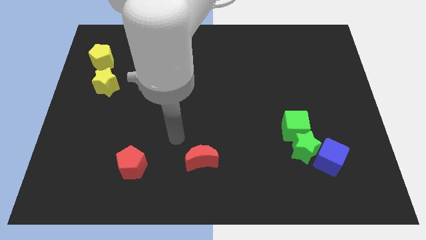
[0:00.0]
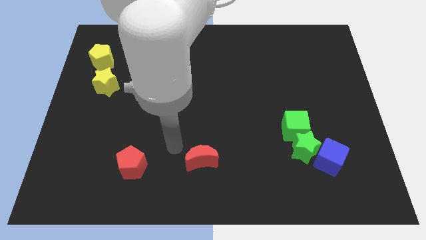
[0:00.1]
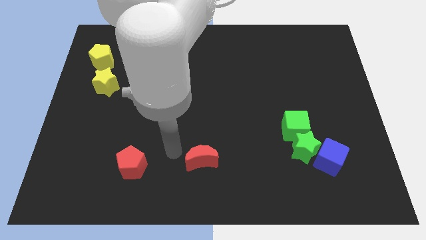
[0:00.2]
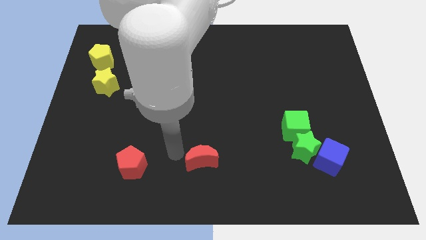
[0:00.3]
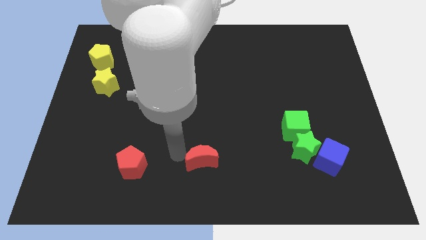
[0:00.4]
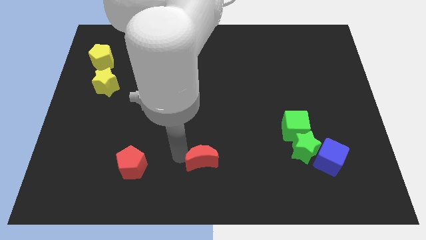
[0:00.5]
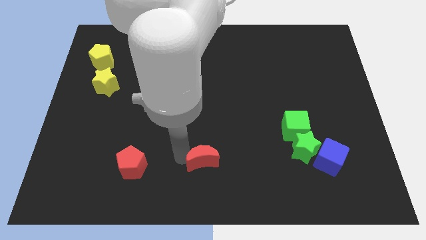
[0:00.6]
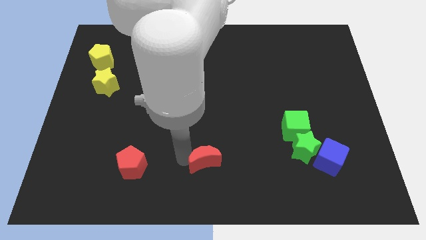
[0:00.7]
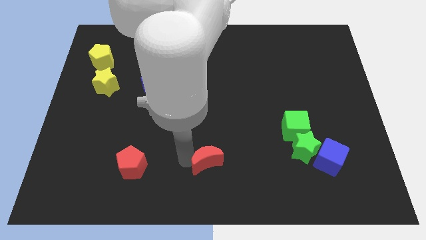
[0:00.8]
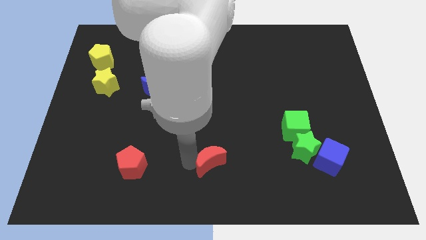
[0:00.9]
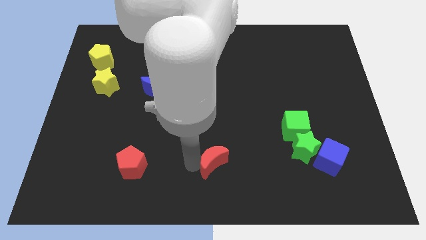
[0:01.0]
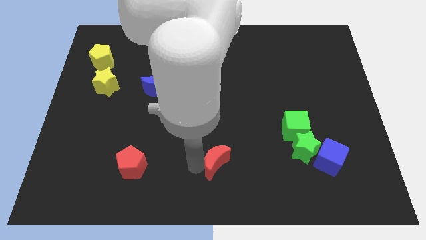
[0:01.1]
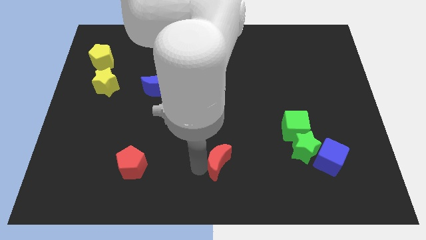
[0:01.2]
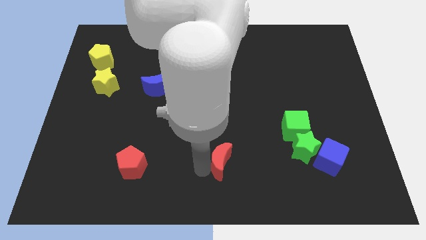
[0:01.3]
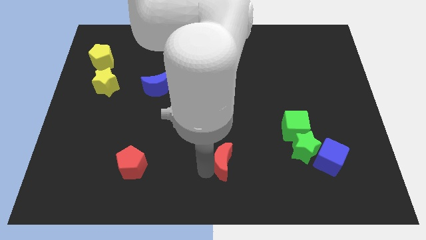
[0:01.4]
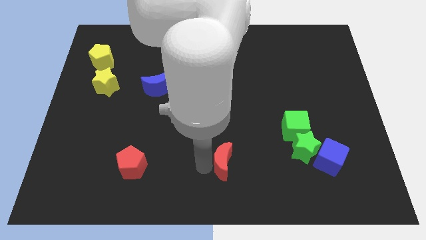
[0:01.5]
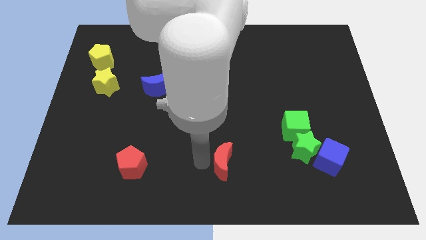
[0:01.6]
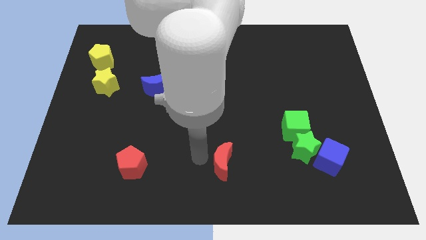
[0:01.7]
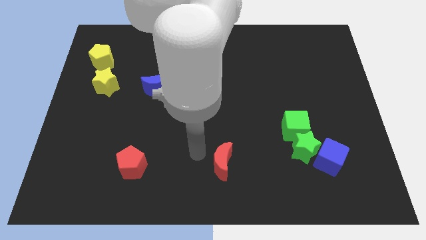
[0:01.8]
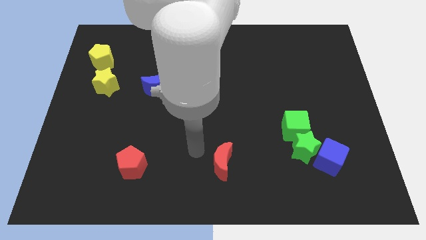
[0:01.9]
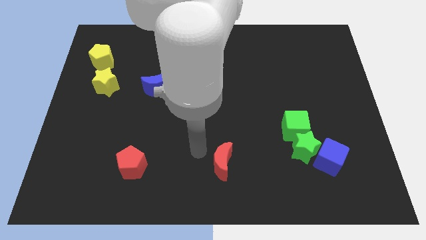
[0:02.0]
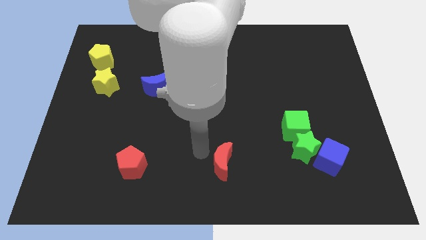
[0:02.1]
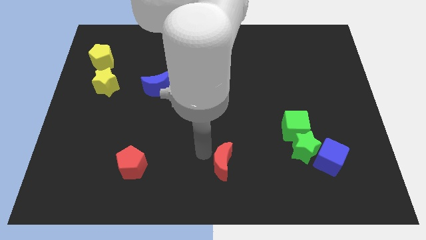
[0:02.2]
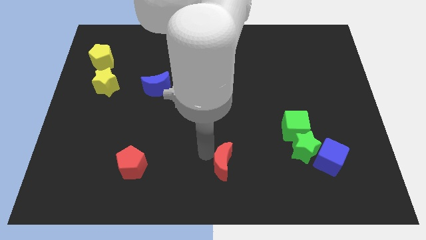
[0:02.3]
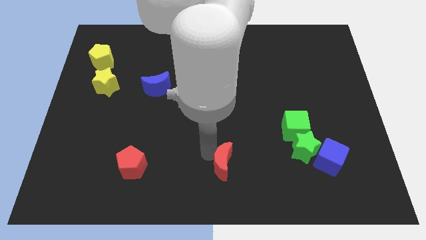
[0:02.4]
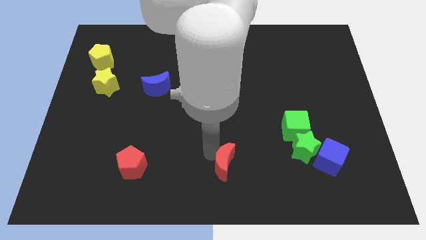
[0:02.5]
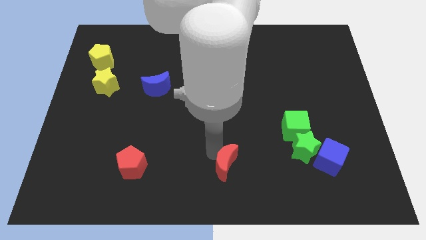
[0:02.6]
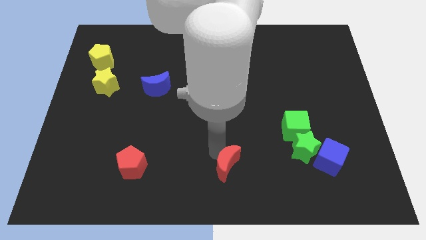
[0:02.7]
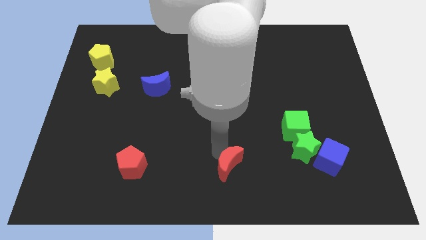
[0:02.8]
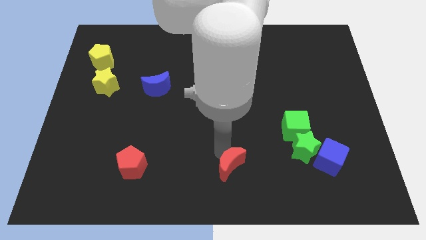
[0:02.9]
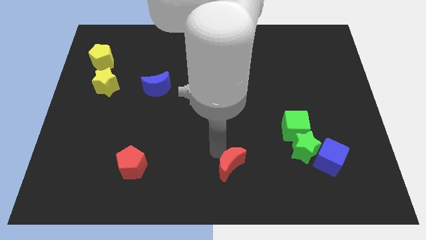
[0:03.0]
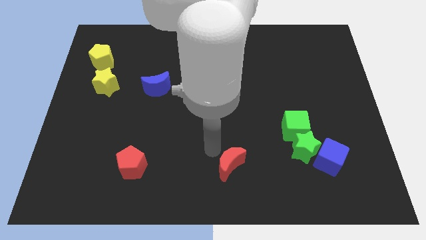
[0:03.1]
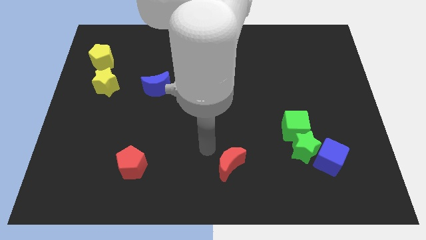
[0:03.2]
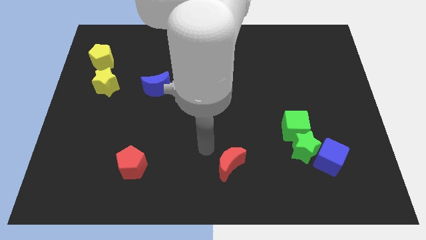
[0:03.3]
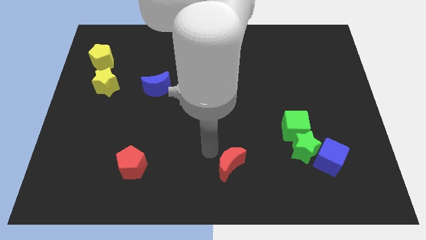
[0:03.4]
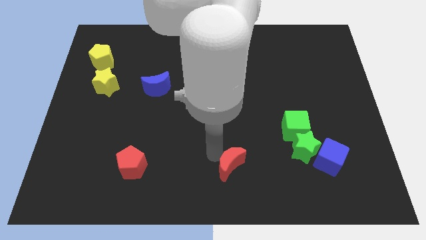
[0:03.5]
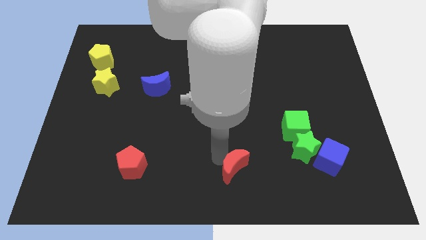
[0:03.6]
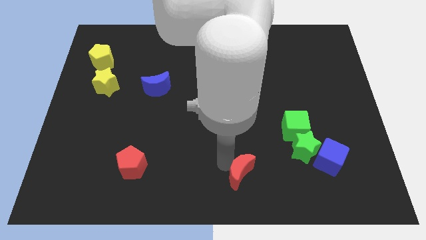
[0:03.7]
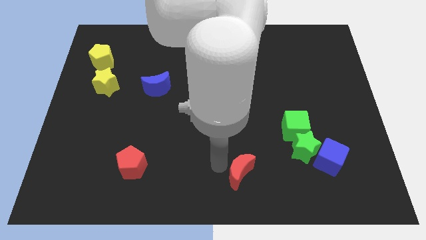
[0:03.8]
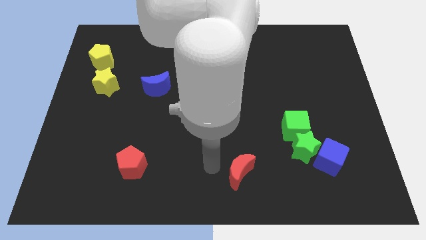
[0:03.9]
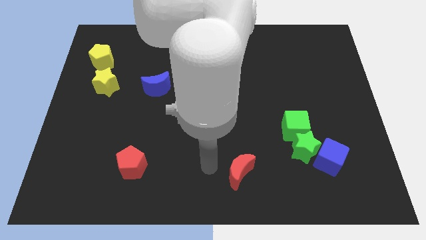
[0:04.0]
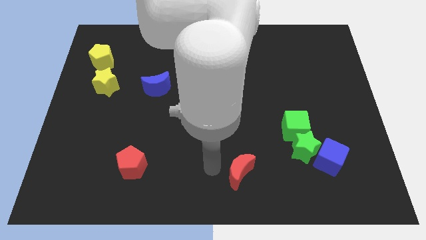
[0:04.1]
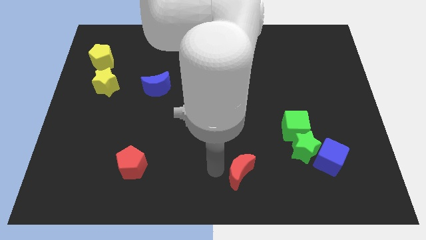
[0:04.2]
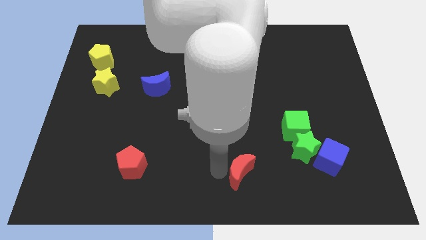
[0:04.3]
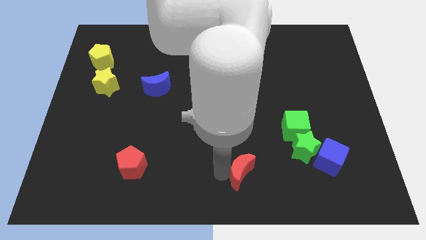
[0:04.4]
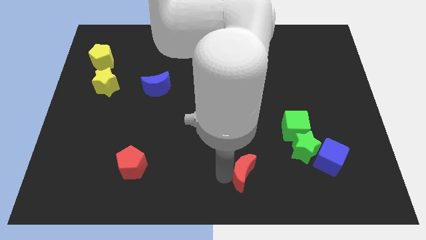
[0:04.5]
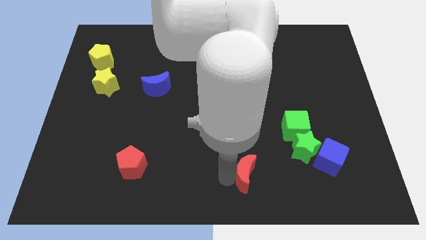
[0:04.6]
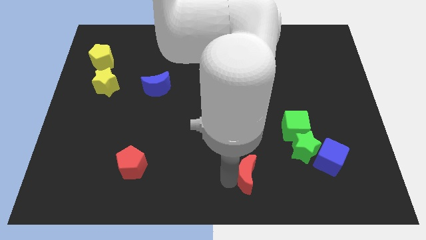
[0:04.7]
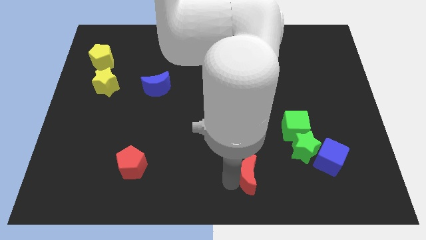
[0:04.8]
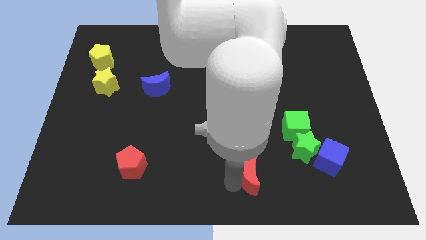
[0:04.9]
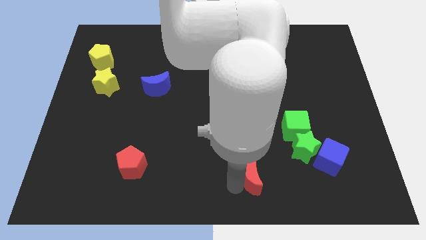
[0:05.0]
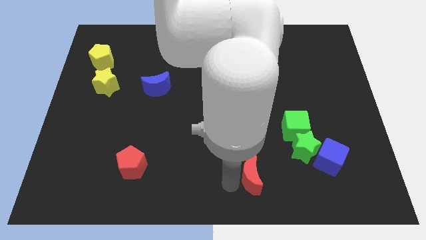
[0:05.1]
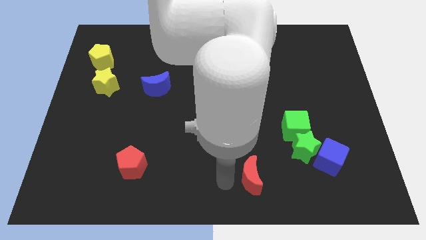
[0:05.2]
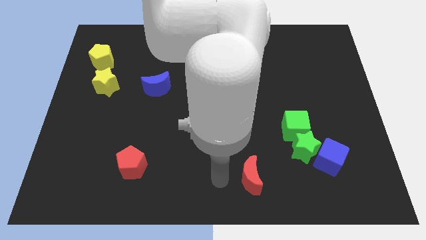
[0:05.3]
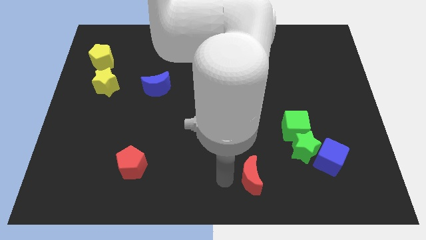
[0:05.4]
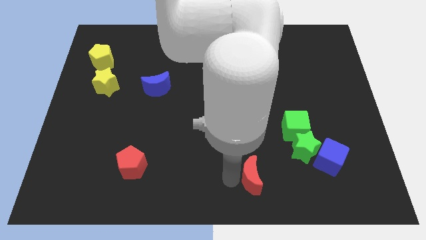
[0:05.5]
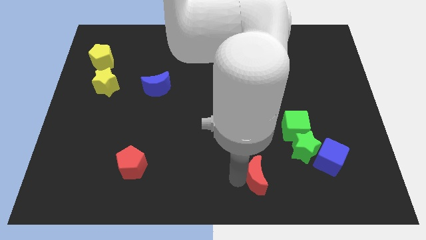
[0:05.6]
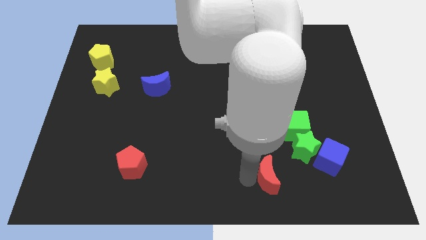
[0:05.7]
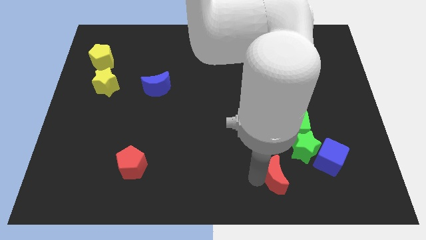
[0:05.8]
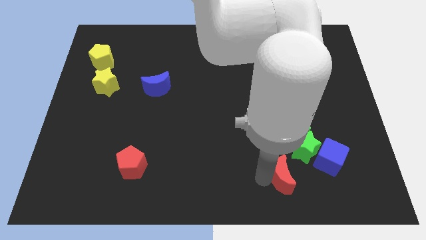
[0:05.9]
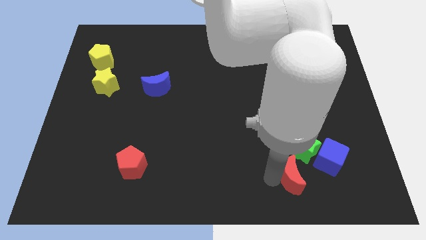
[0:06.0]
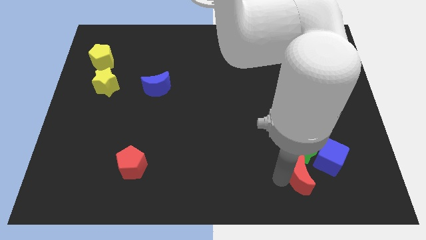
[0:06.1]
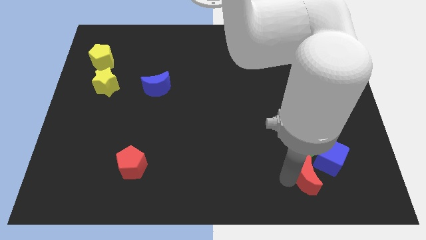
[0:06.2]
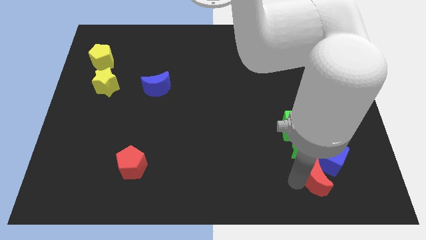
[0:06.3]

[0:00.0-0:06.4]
put the red moon next to the blue cube

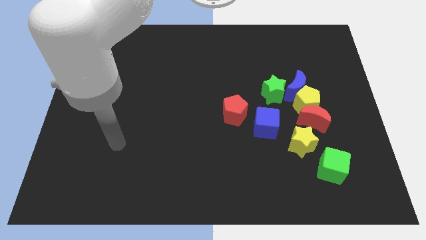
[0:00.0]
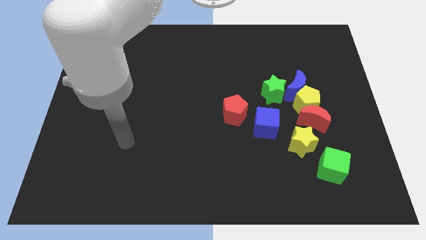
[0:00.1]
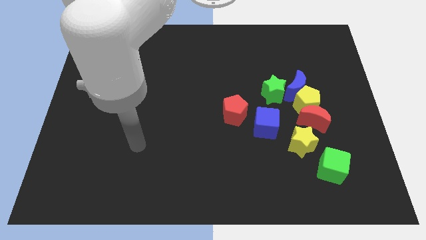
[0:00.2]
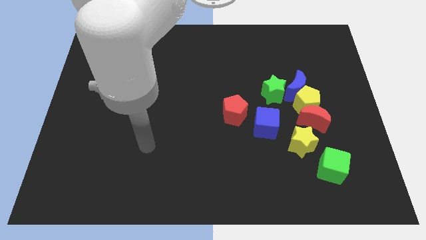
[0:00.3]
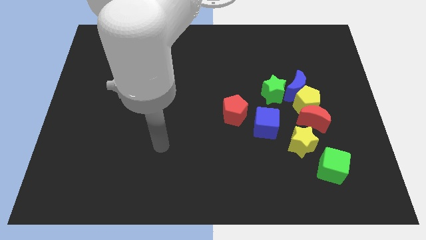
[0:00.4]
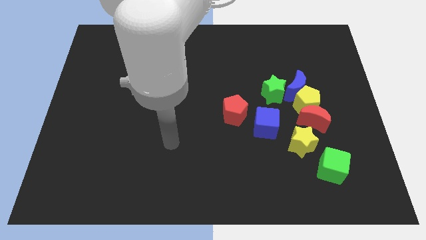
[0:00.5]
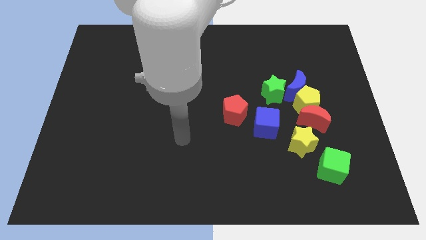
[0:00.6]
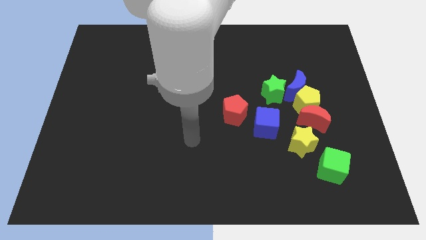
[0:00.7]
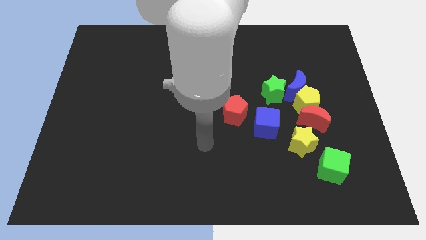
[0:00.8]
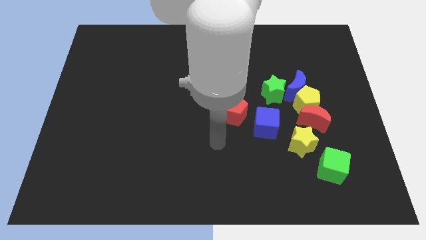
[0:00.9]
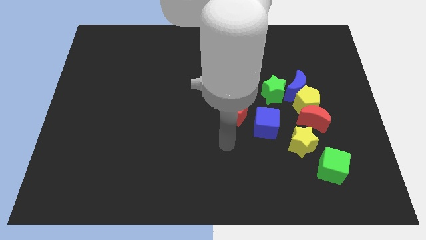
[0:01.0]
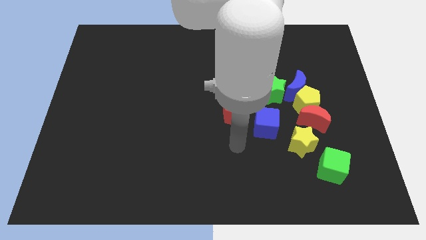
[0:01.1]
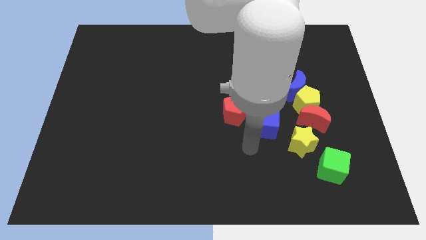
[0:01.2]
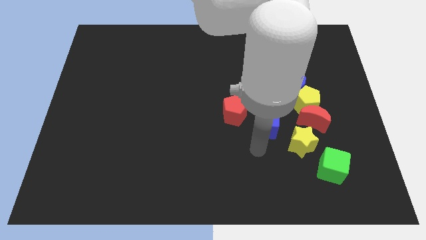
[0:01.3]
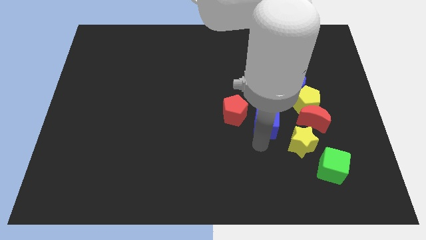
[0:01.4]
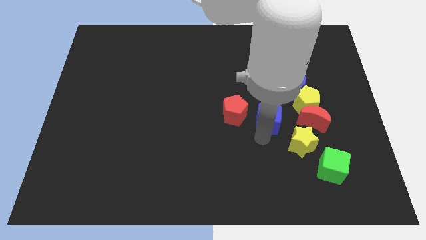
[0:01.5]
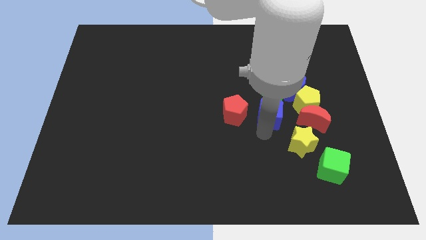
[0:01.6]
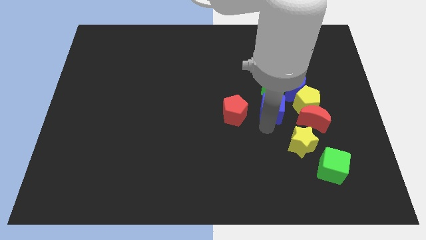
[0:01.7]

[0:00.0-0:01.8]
move the blue cube towards the green star
